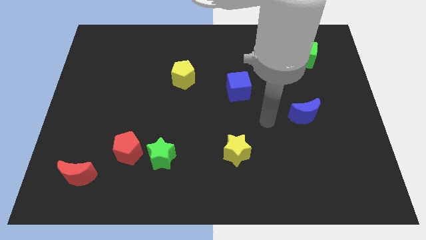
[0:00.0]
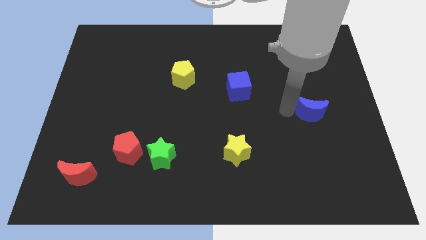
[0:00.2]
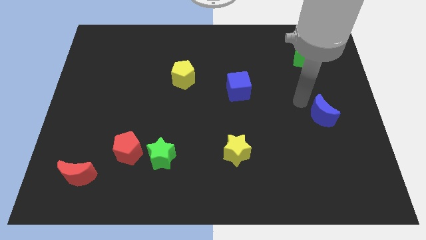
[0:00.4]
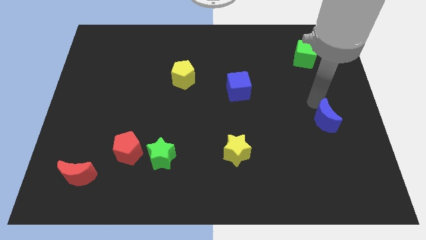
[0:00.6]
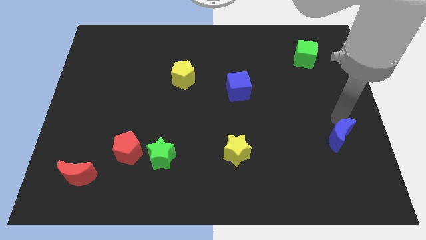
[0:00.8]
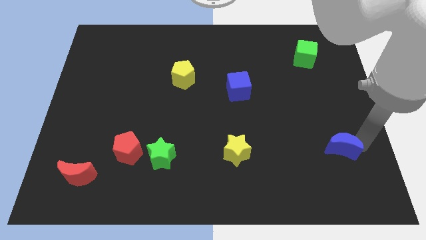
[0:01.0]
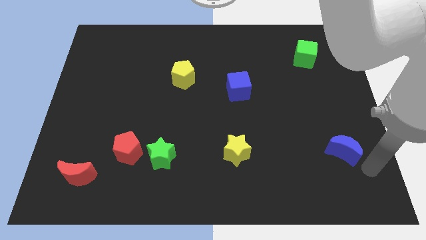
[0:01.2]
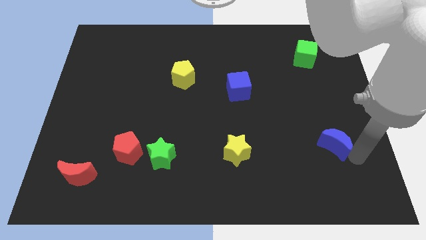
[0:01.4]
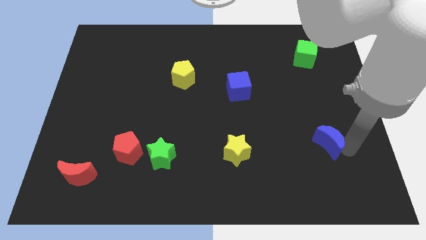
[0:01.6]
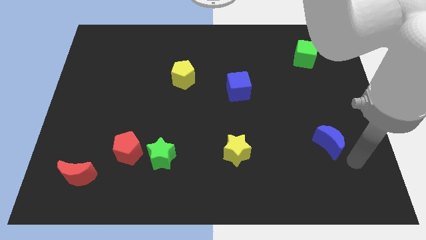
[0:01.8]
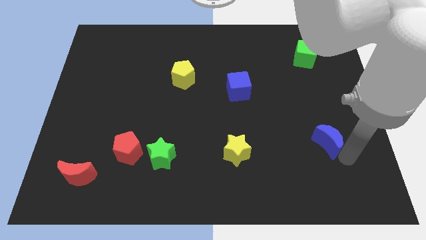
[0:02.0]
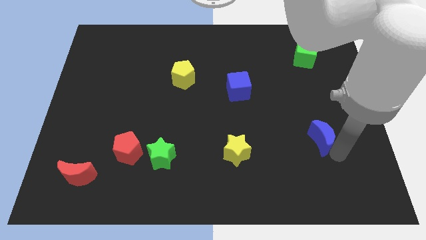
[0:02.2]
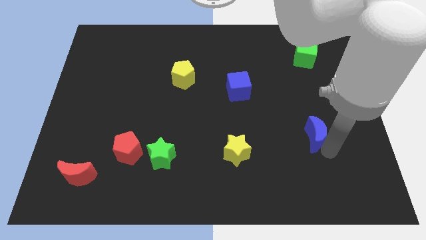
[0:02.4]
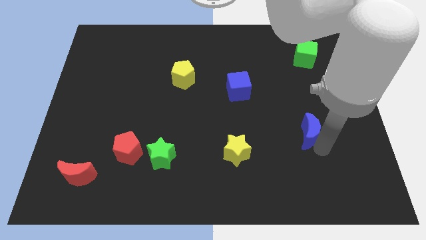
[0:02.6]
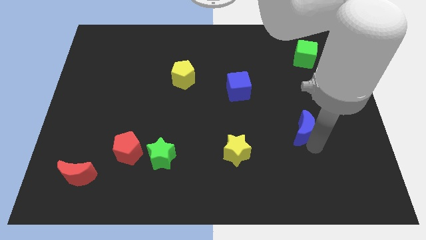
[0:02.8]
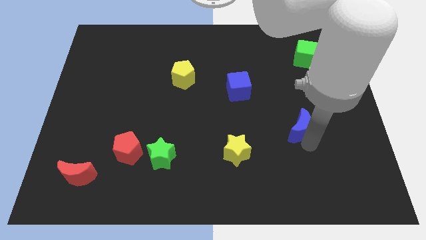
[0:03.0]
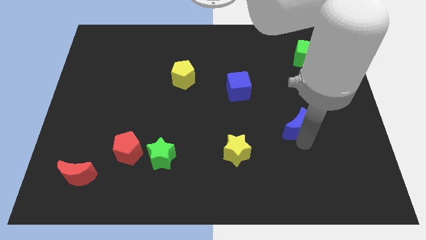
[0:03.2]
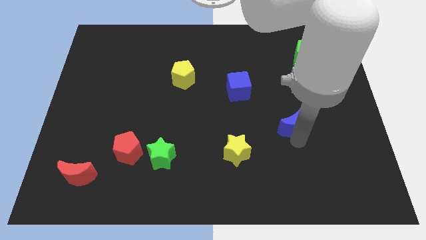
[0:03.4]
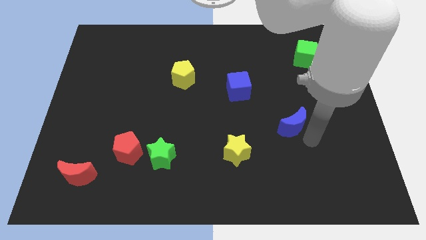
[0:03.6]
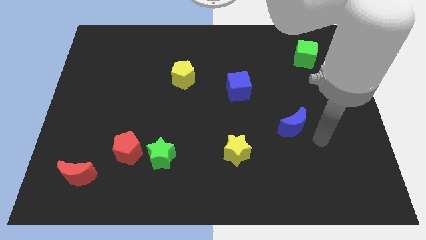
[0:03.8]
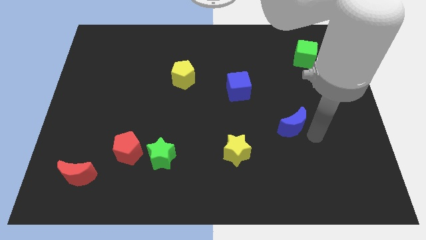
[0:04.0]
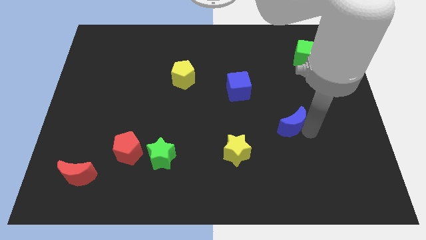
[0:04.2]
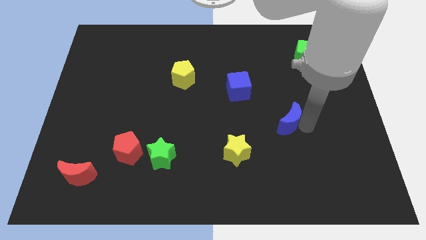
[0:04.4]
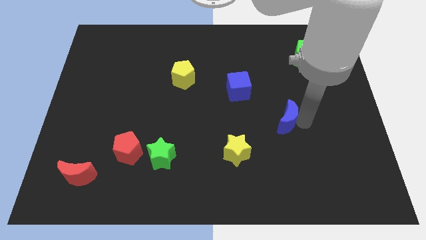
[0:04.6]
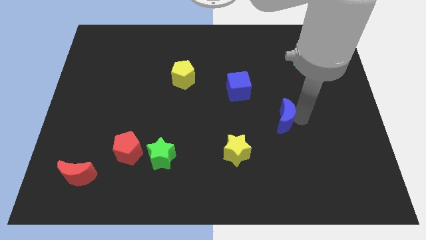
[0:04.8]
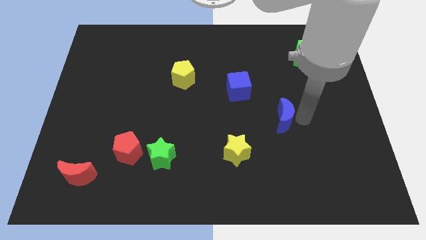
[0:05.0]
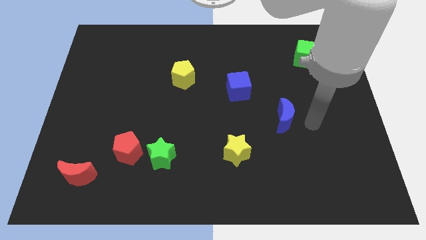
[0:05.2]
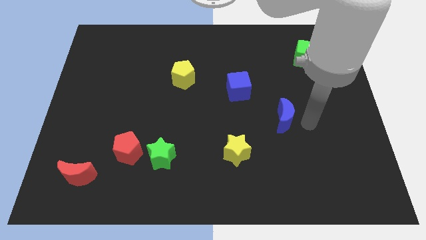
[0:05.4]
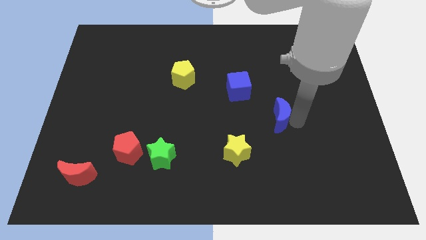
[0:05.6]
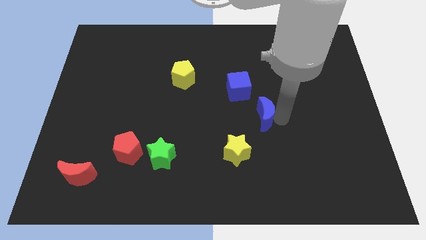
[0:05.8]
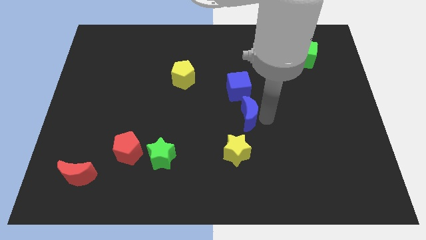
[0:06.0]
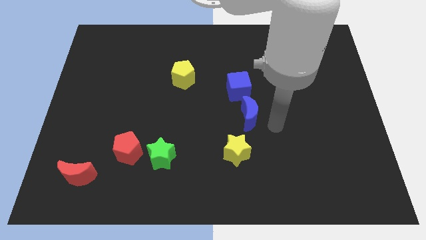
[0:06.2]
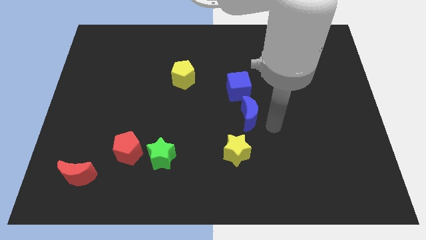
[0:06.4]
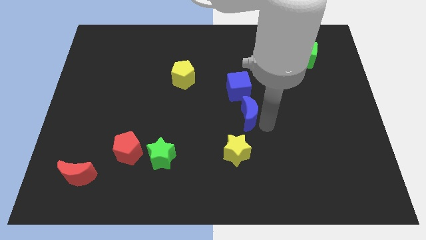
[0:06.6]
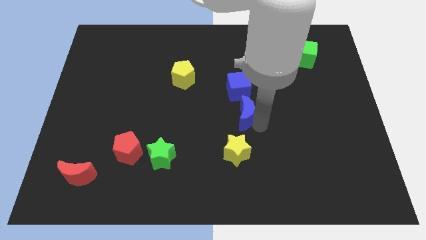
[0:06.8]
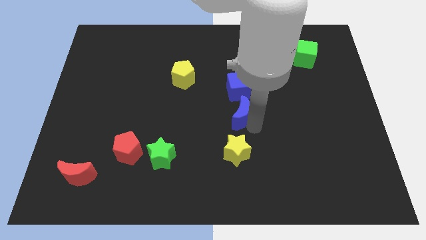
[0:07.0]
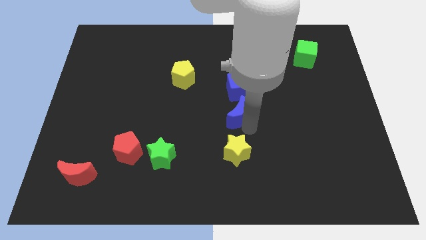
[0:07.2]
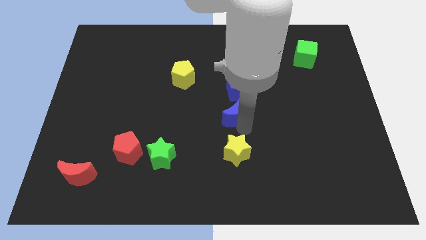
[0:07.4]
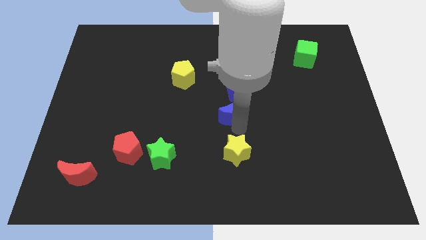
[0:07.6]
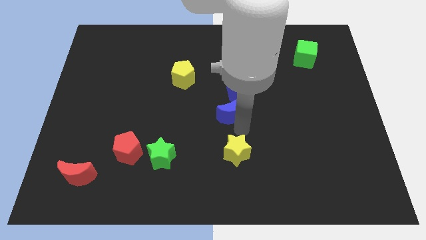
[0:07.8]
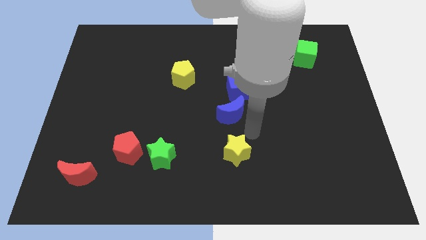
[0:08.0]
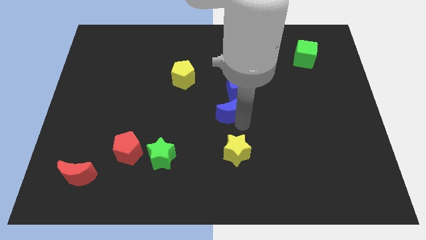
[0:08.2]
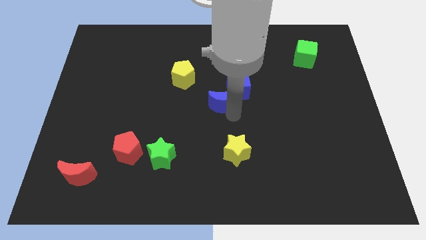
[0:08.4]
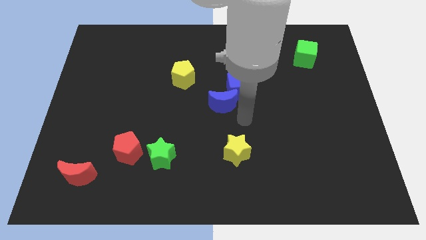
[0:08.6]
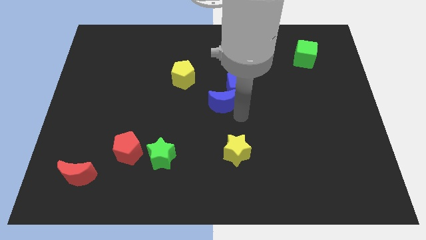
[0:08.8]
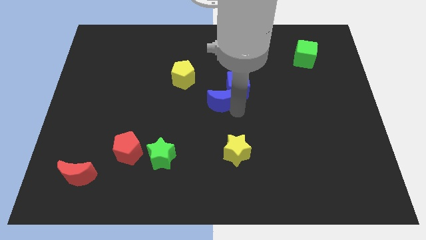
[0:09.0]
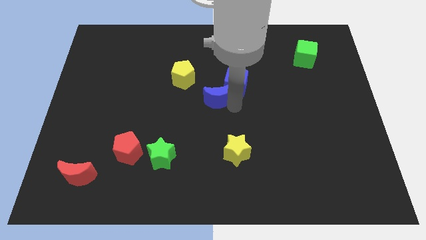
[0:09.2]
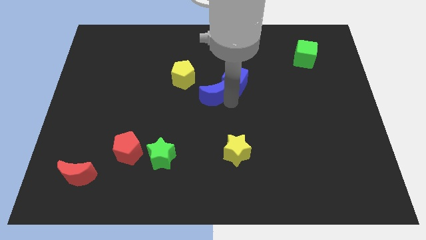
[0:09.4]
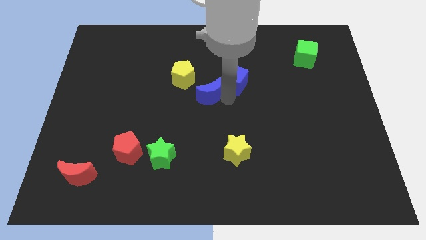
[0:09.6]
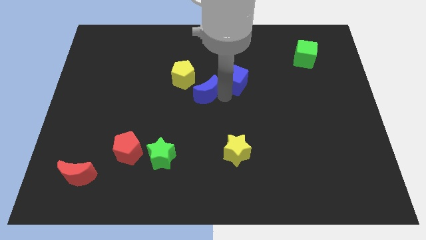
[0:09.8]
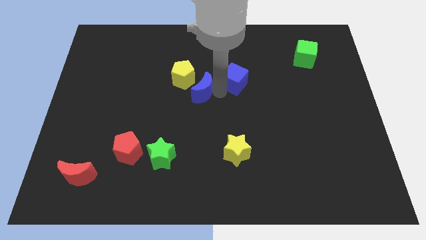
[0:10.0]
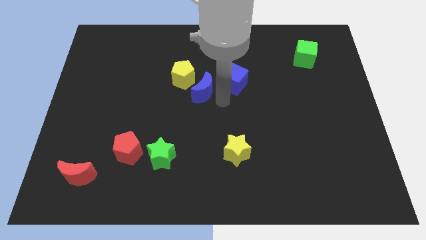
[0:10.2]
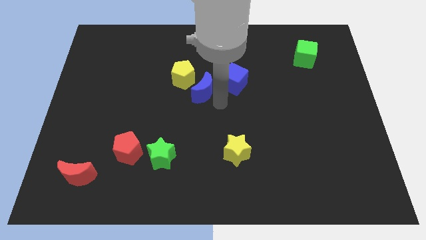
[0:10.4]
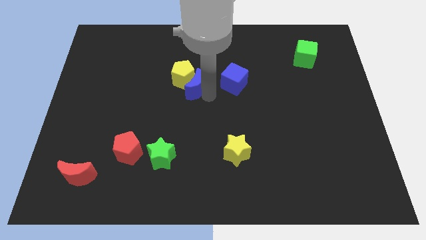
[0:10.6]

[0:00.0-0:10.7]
move the blue moon towards the yellow pentagon

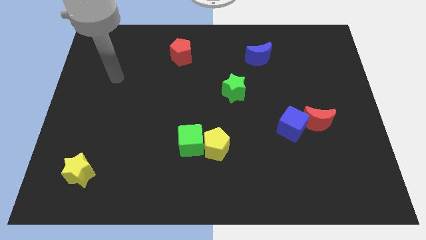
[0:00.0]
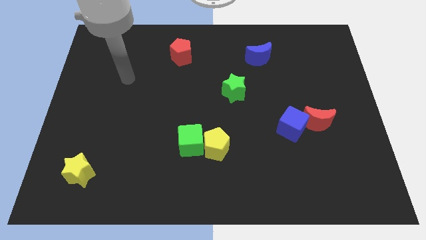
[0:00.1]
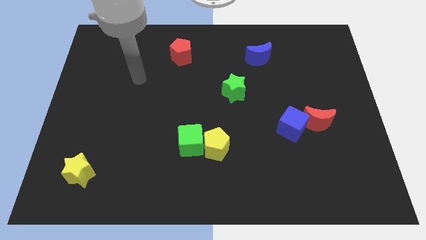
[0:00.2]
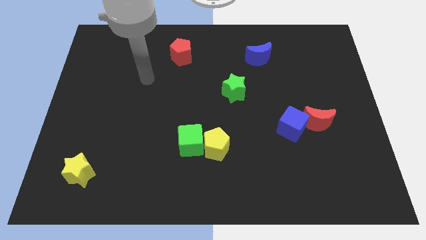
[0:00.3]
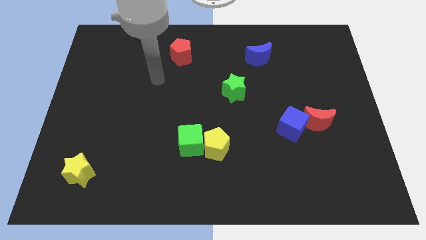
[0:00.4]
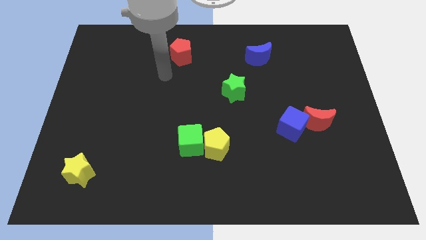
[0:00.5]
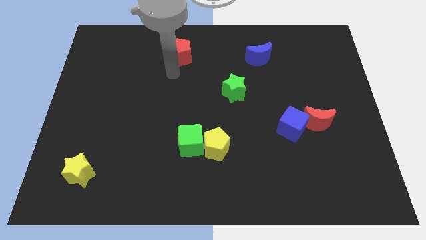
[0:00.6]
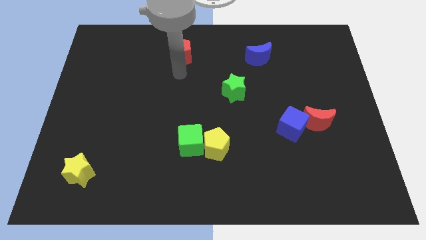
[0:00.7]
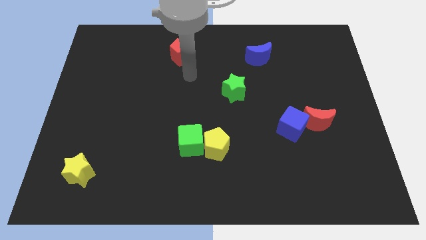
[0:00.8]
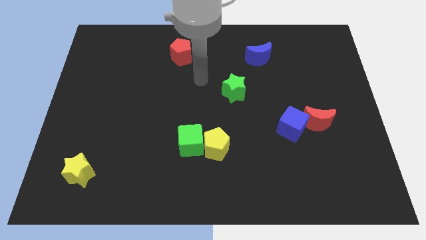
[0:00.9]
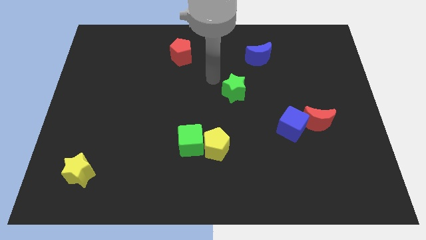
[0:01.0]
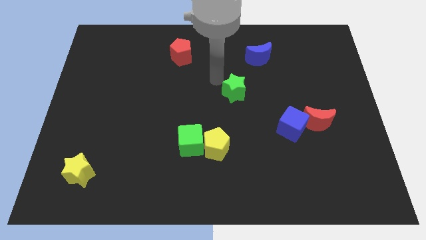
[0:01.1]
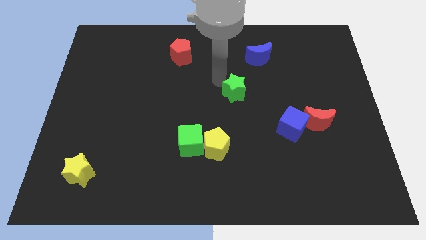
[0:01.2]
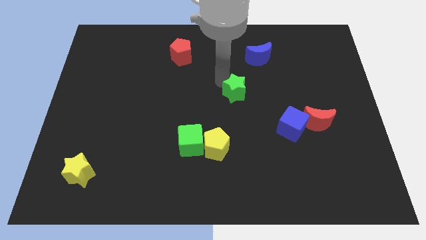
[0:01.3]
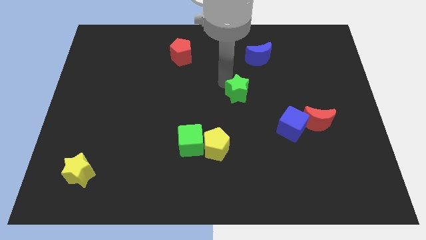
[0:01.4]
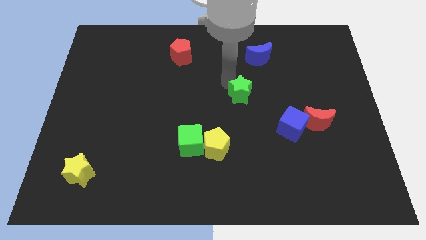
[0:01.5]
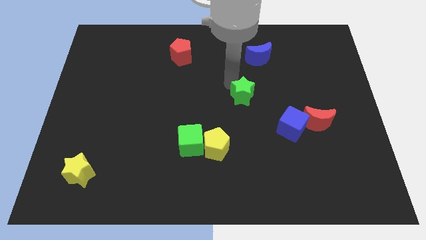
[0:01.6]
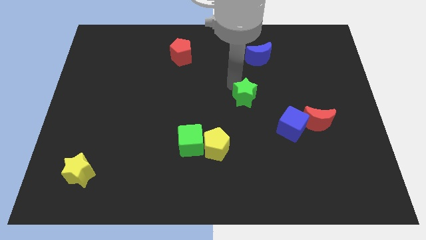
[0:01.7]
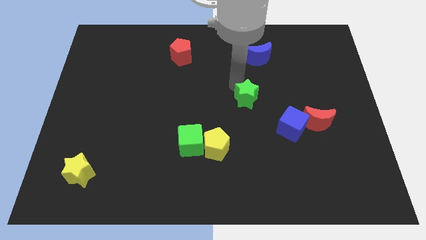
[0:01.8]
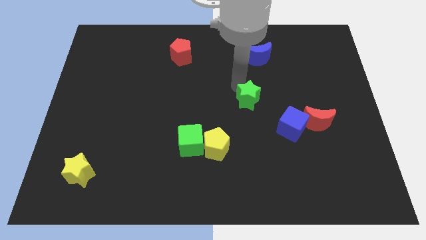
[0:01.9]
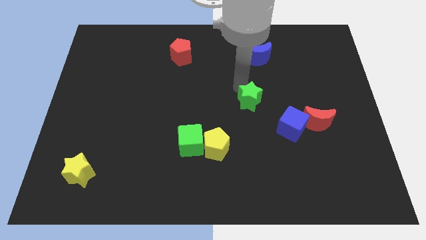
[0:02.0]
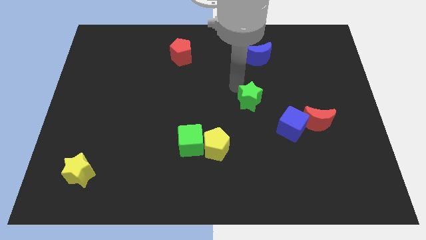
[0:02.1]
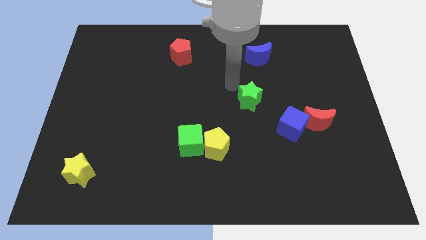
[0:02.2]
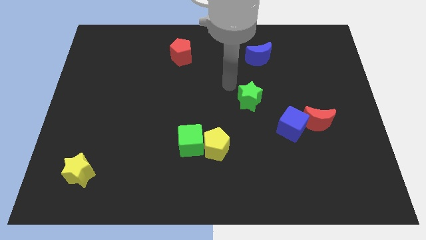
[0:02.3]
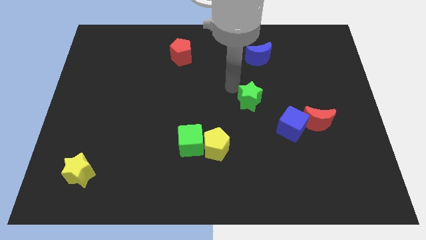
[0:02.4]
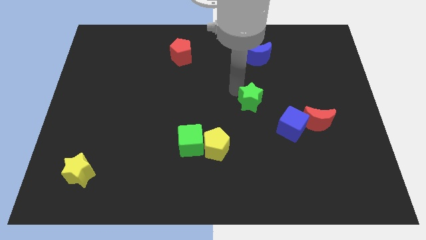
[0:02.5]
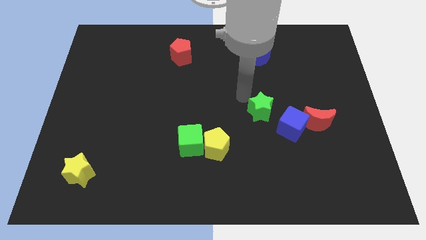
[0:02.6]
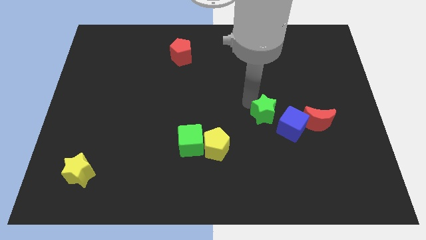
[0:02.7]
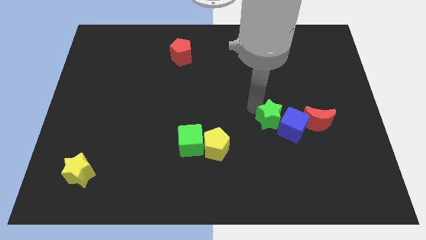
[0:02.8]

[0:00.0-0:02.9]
push the green star next to the blue cube
